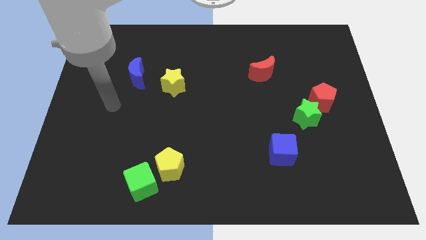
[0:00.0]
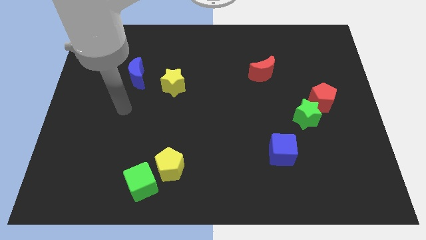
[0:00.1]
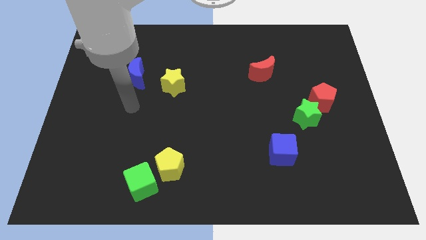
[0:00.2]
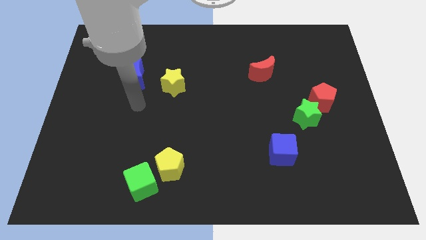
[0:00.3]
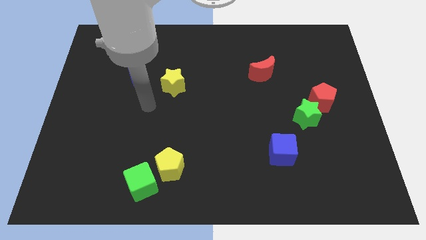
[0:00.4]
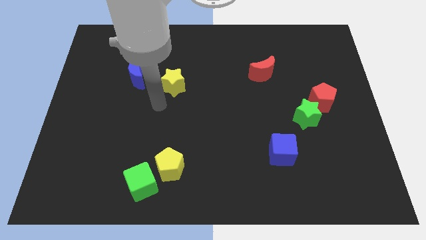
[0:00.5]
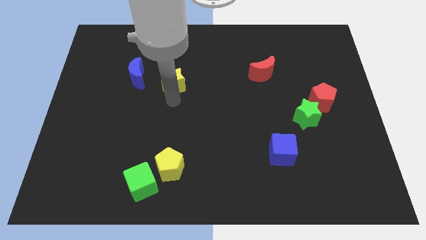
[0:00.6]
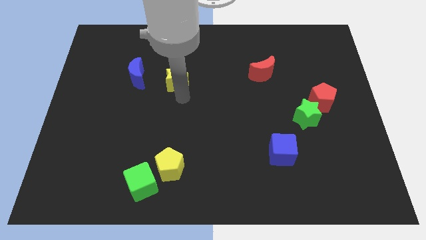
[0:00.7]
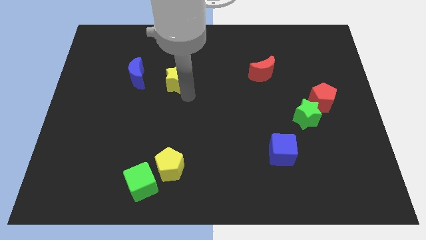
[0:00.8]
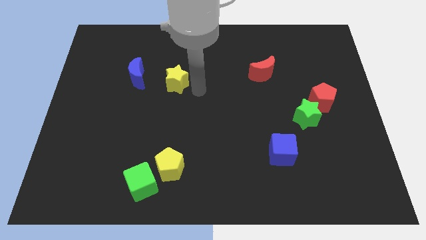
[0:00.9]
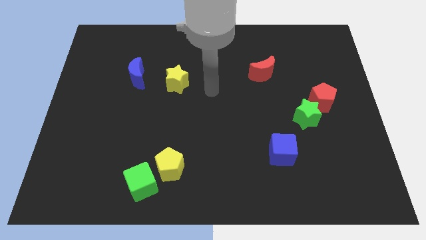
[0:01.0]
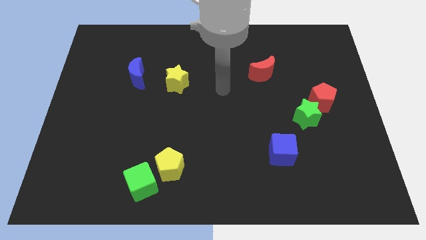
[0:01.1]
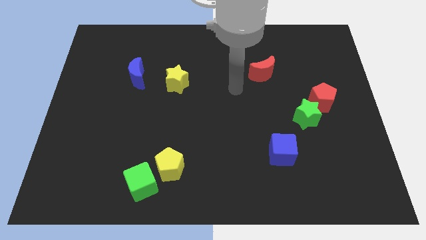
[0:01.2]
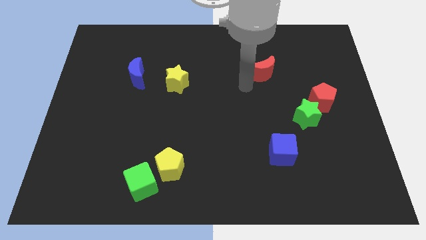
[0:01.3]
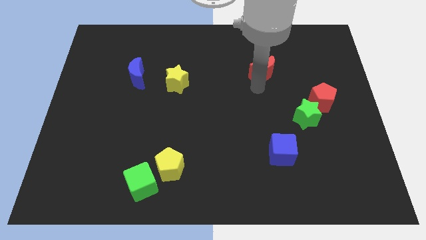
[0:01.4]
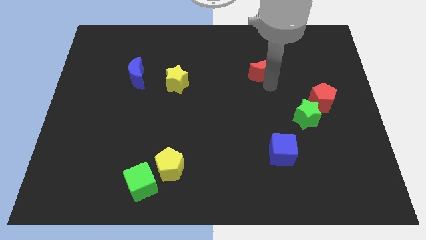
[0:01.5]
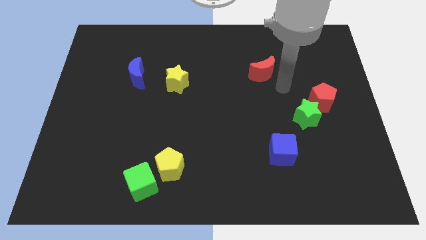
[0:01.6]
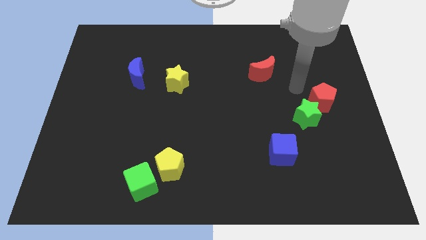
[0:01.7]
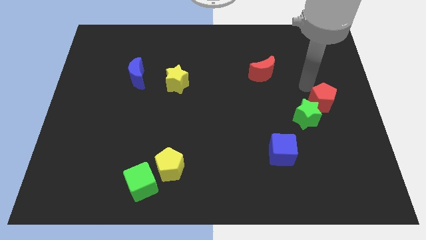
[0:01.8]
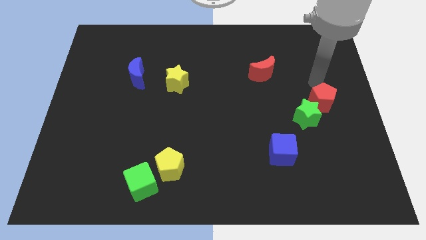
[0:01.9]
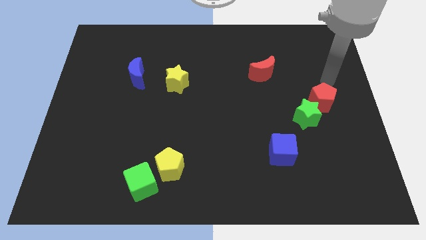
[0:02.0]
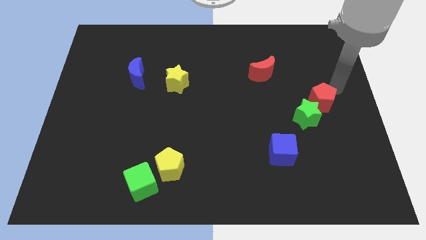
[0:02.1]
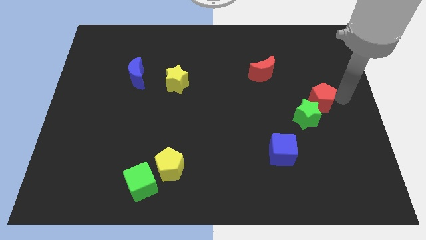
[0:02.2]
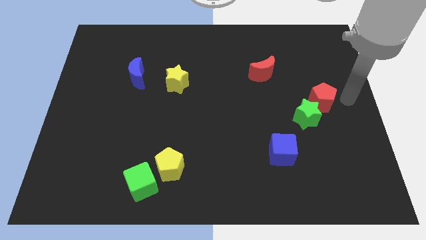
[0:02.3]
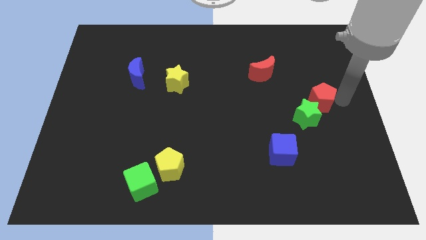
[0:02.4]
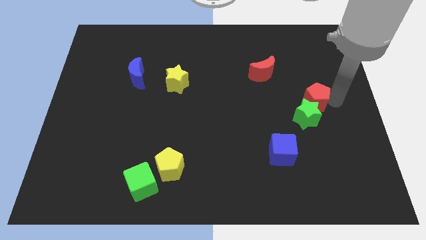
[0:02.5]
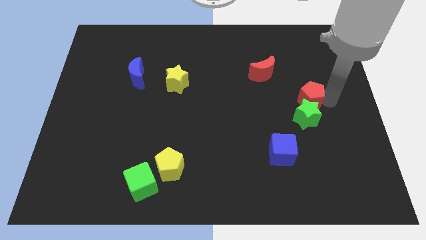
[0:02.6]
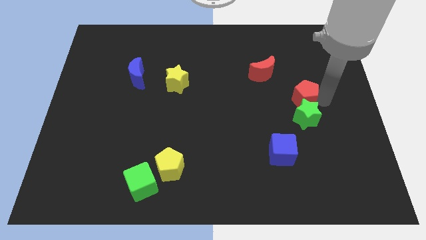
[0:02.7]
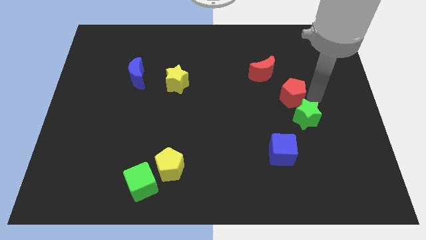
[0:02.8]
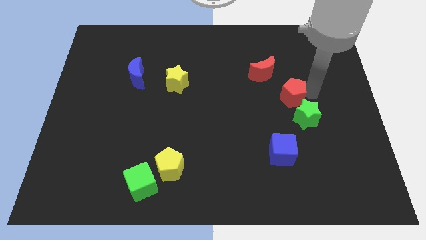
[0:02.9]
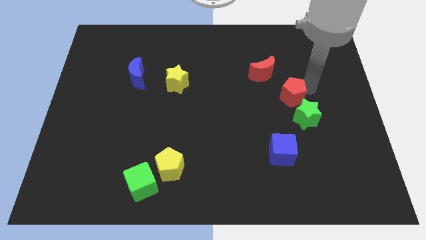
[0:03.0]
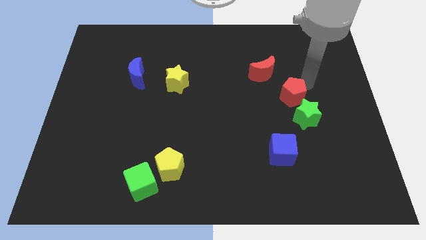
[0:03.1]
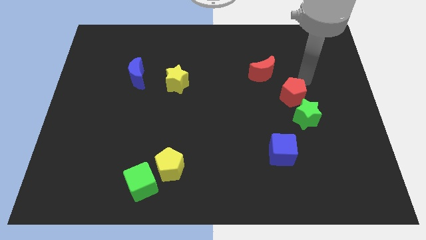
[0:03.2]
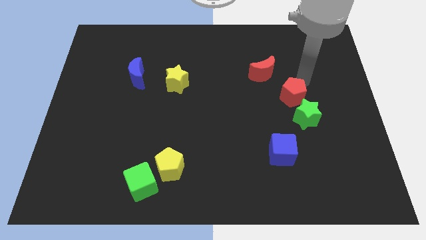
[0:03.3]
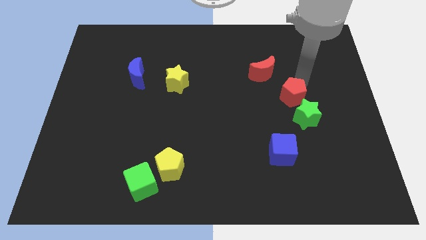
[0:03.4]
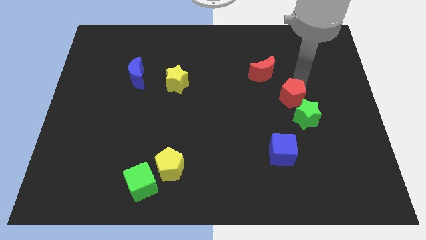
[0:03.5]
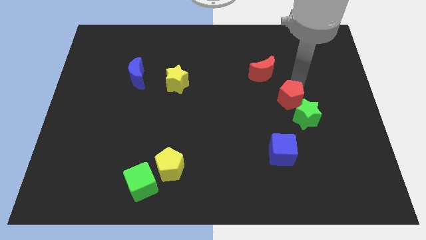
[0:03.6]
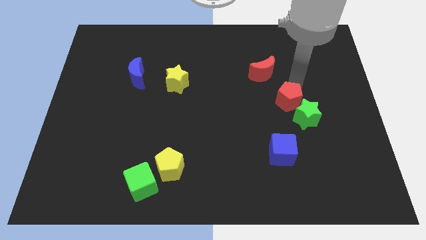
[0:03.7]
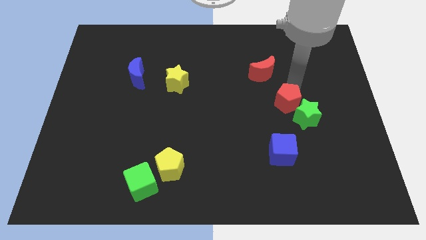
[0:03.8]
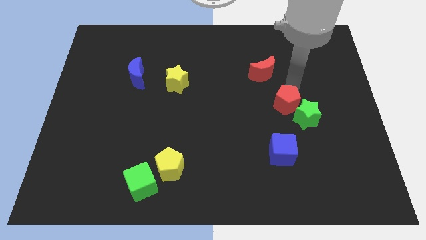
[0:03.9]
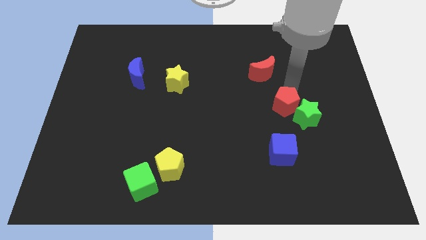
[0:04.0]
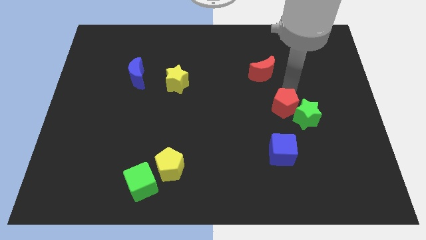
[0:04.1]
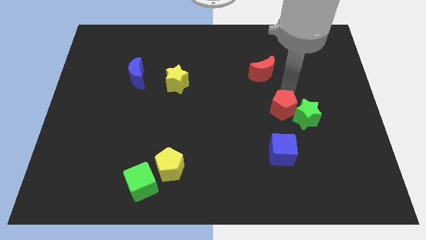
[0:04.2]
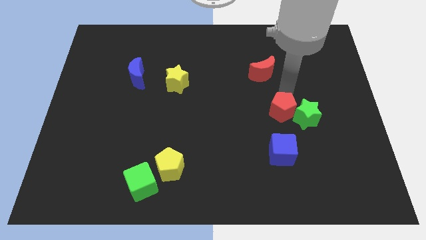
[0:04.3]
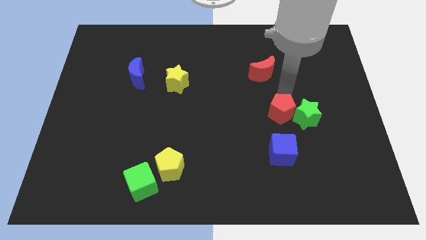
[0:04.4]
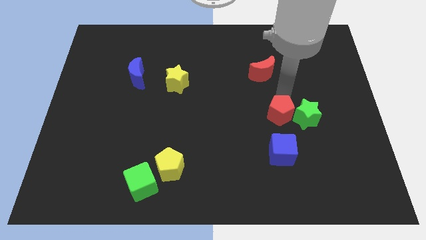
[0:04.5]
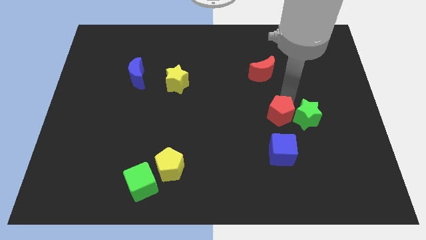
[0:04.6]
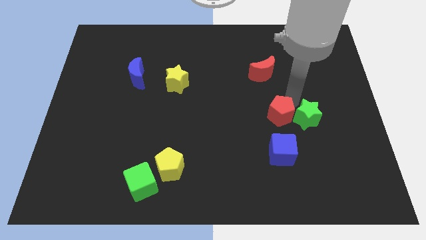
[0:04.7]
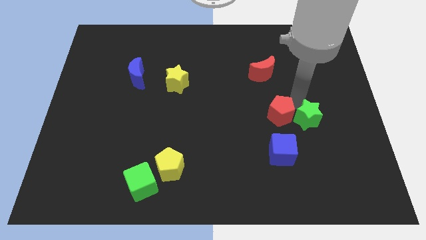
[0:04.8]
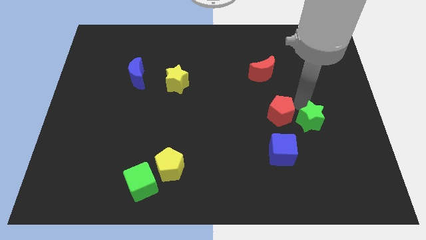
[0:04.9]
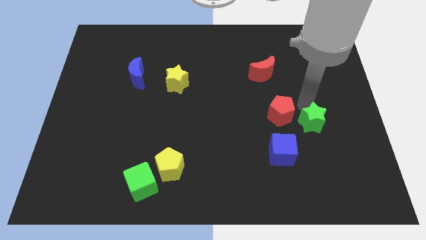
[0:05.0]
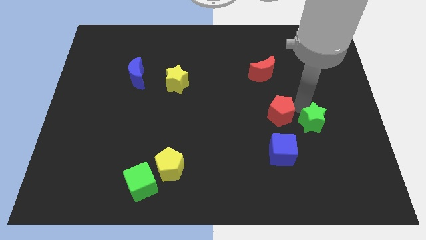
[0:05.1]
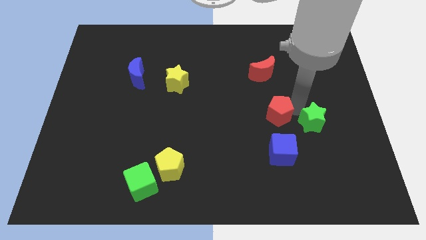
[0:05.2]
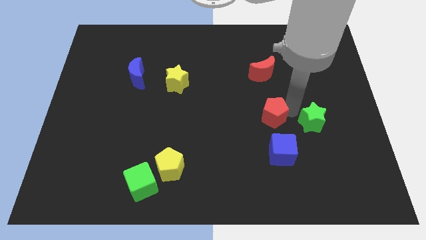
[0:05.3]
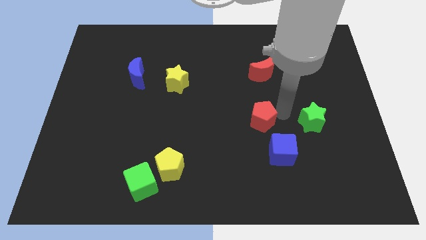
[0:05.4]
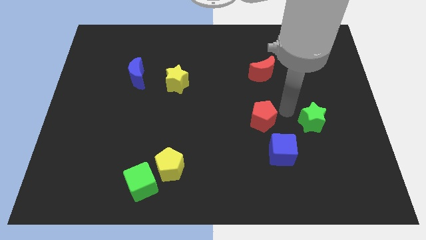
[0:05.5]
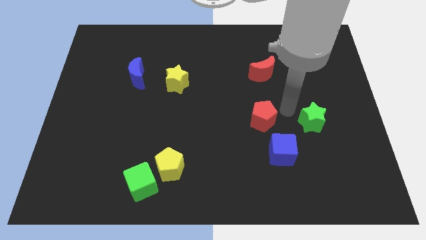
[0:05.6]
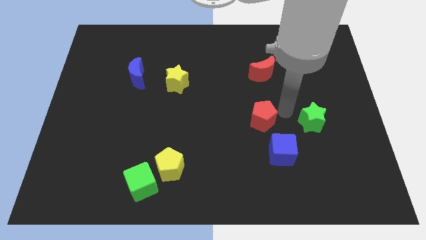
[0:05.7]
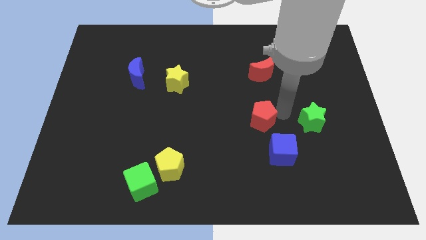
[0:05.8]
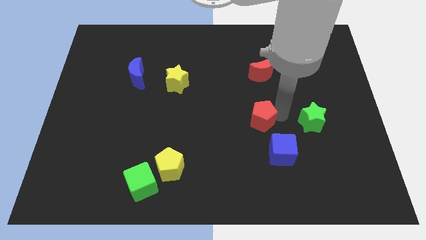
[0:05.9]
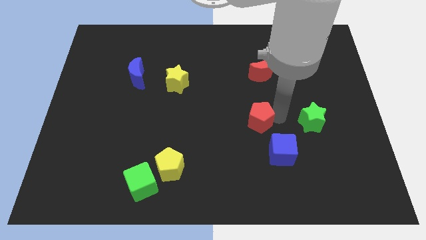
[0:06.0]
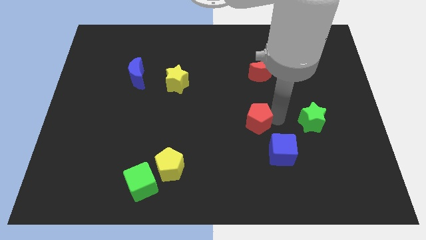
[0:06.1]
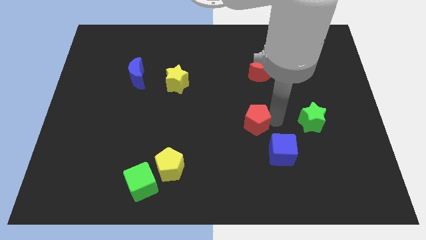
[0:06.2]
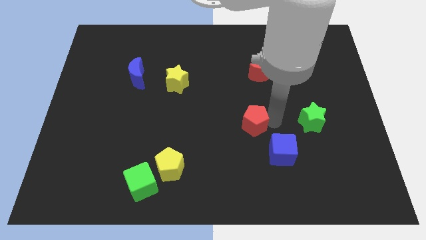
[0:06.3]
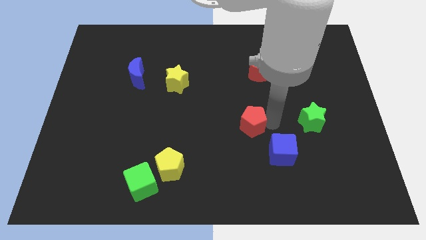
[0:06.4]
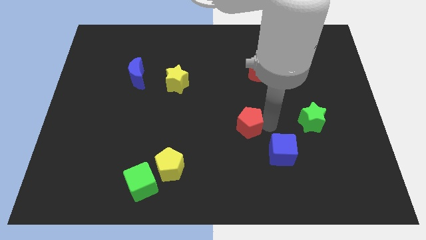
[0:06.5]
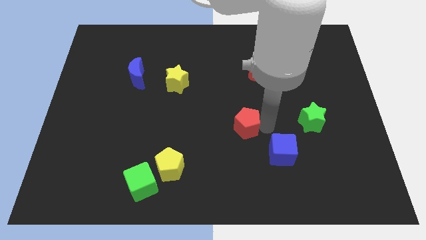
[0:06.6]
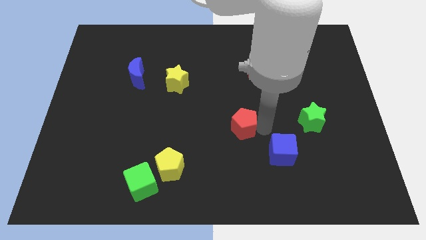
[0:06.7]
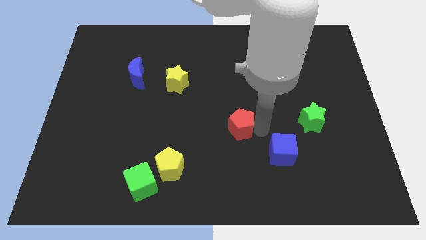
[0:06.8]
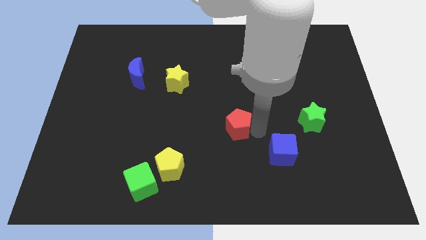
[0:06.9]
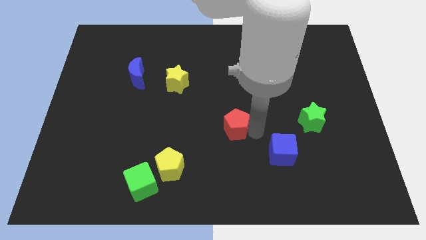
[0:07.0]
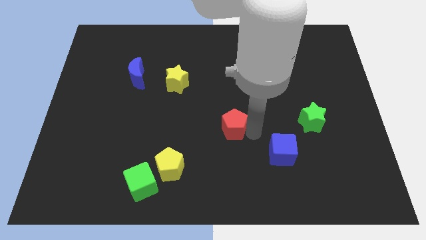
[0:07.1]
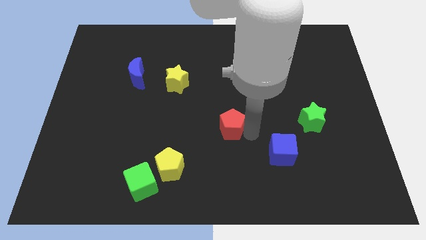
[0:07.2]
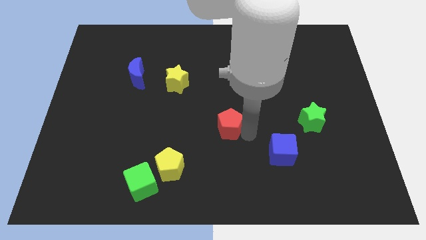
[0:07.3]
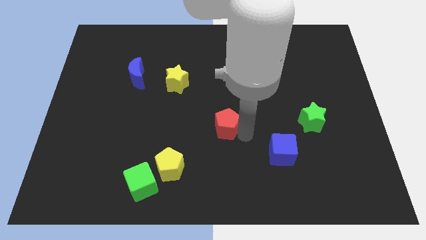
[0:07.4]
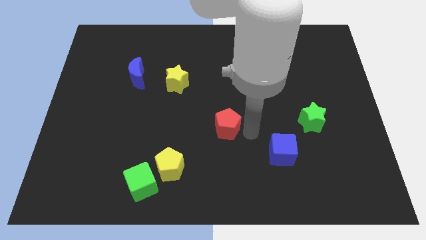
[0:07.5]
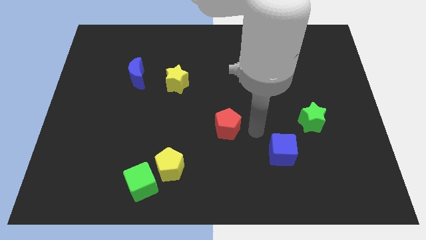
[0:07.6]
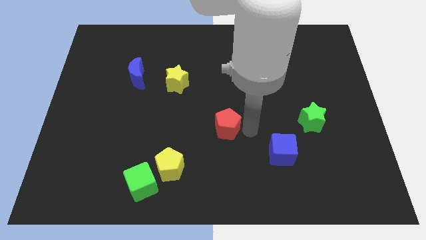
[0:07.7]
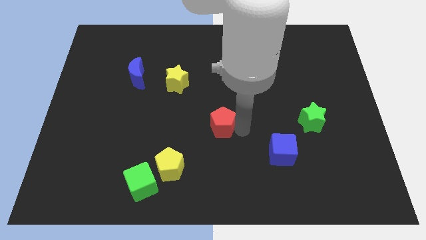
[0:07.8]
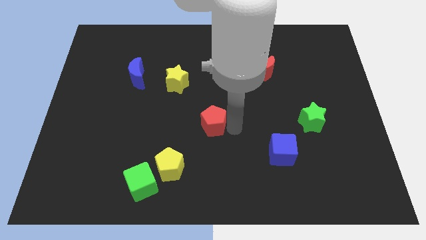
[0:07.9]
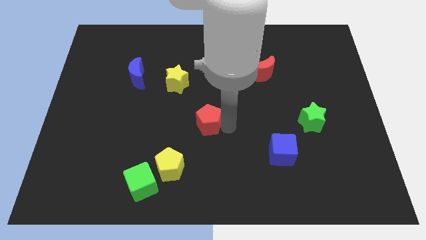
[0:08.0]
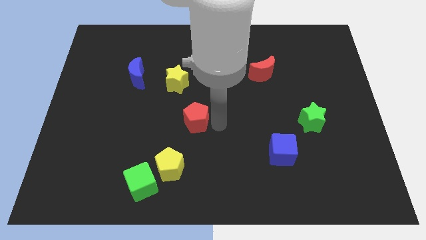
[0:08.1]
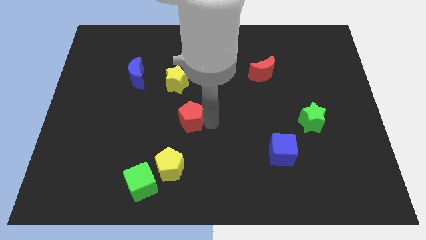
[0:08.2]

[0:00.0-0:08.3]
put the red pentagon to the top side of the yellow pentagon
